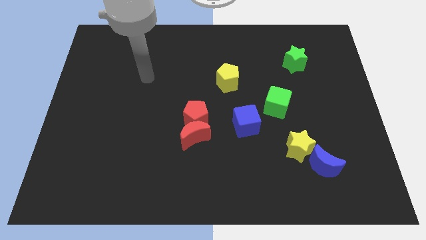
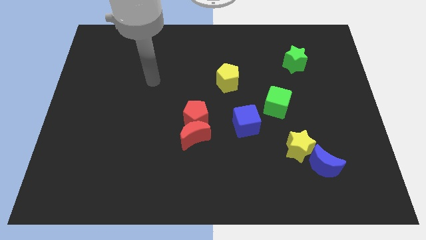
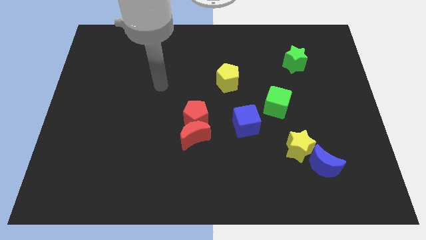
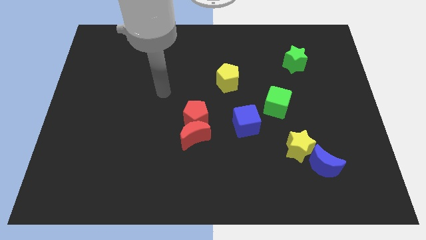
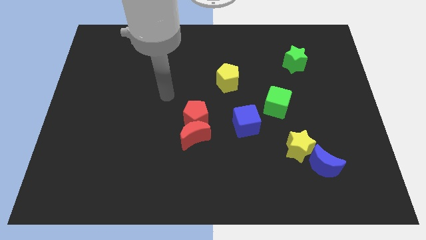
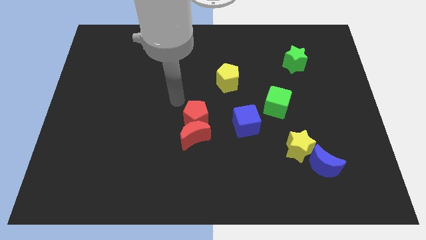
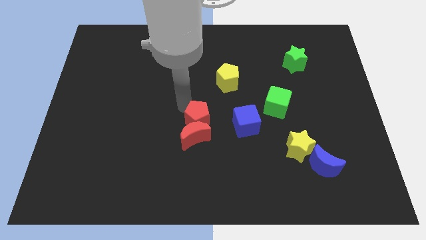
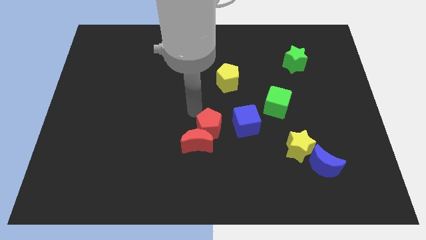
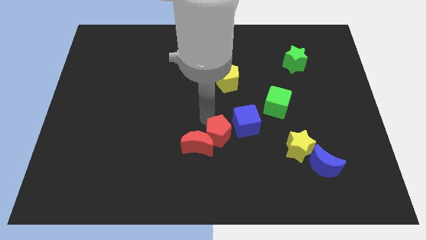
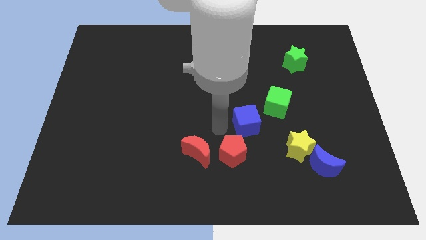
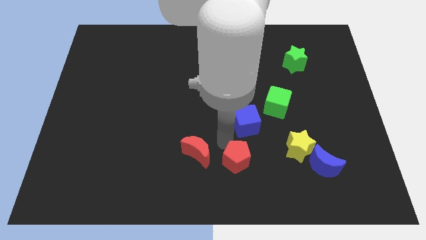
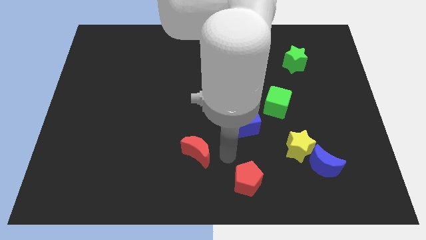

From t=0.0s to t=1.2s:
pull the red moon apart from the red pentagon

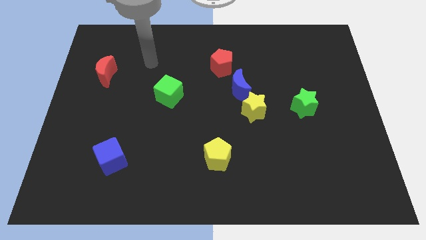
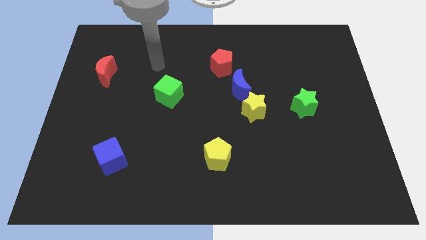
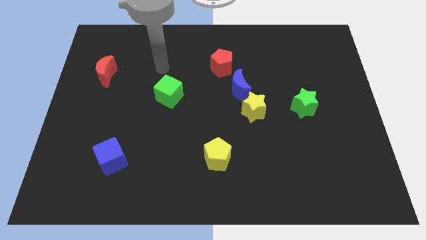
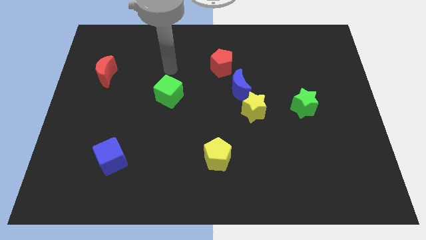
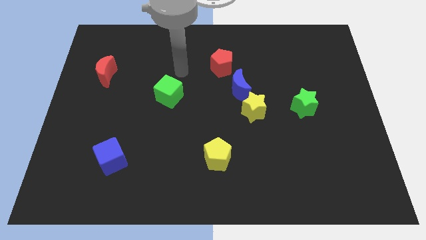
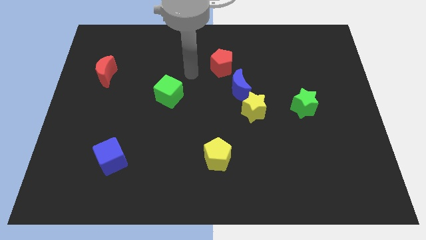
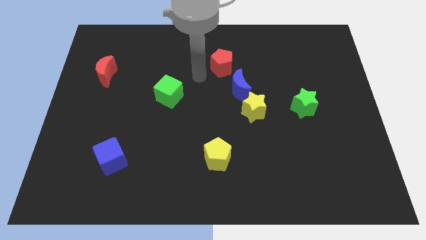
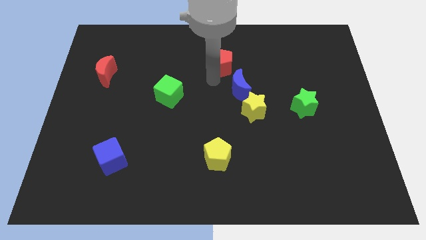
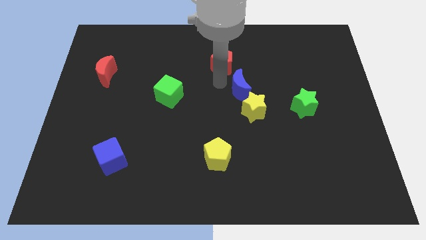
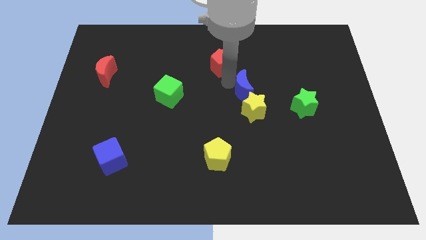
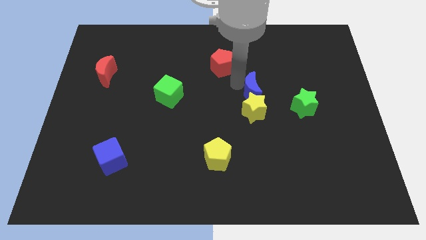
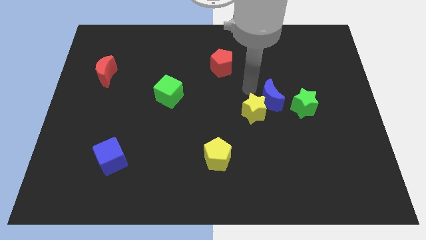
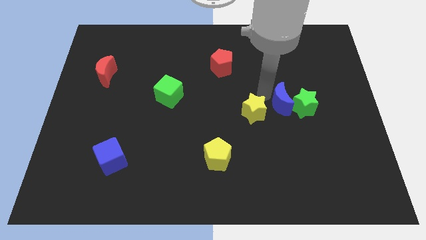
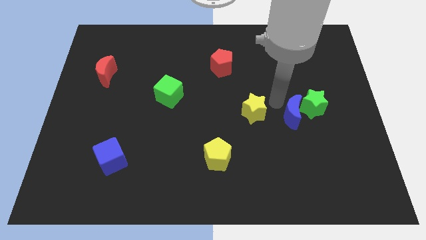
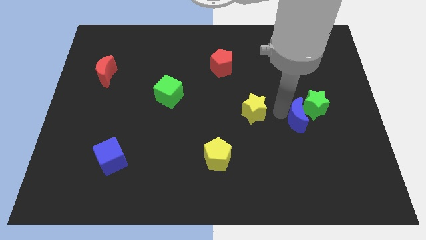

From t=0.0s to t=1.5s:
pull the yellow star apart from the blue moon

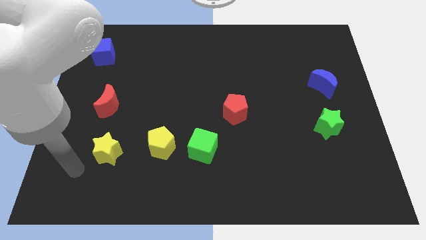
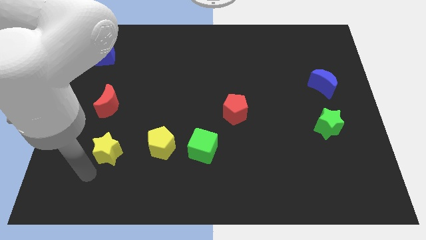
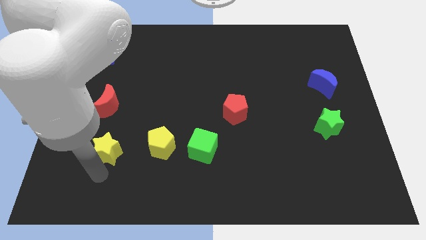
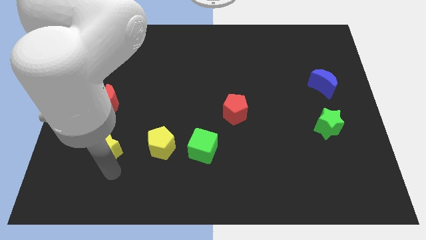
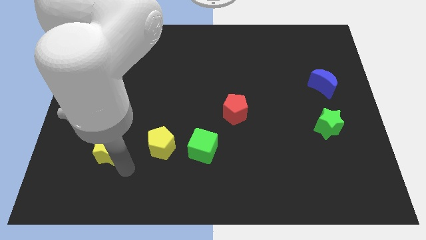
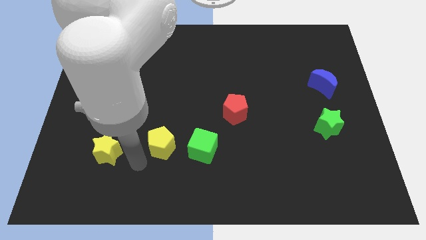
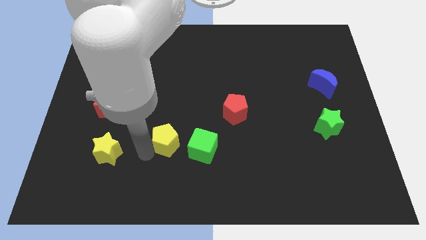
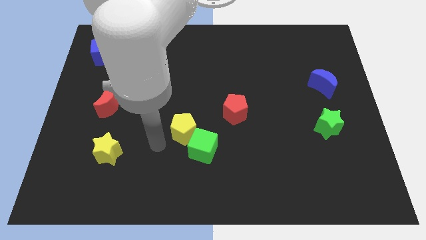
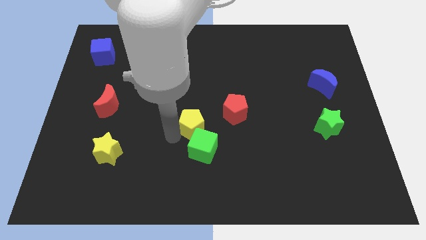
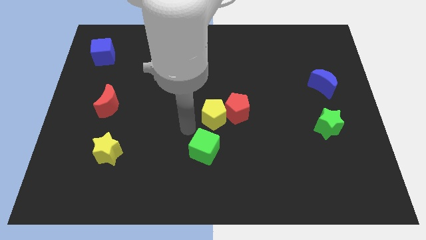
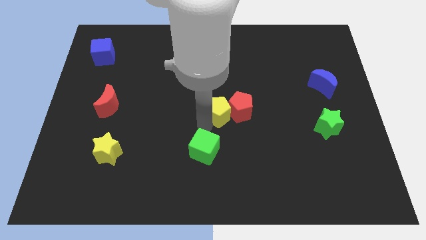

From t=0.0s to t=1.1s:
move the green cube away from the yellow pentagon

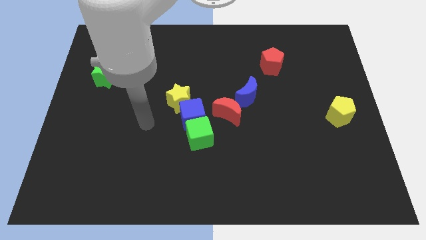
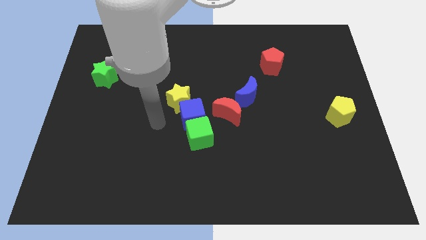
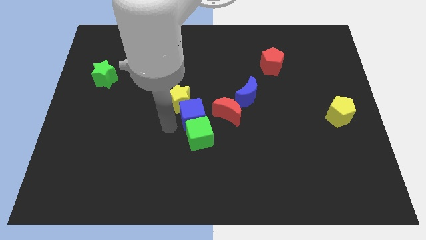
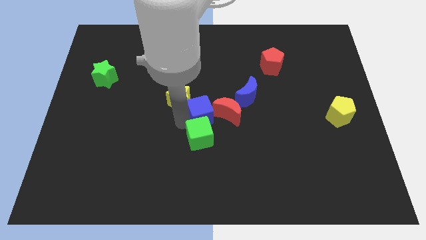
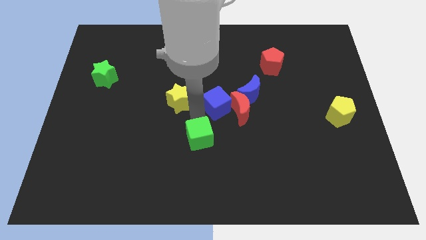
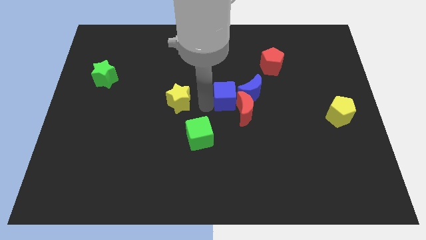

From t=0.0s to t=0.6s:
move the yellow star away from the blue cube

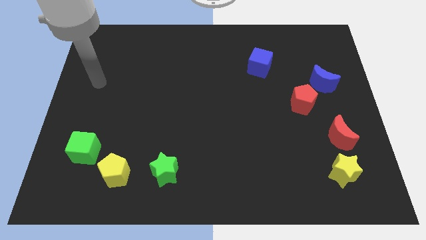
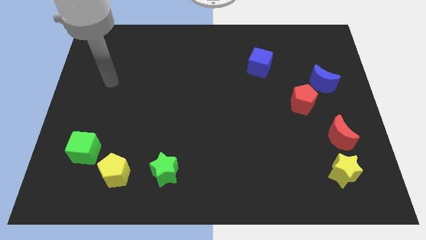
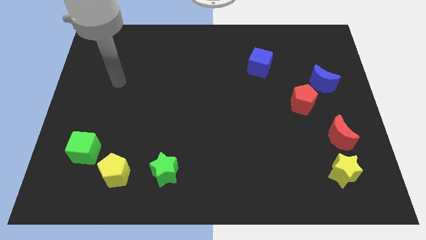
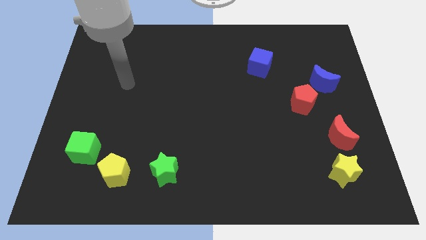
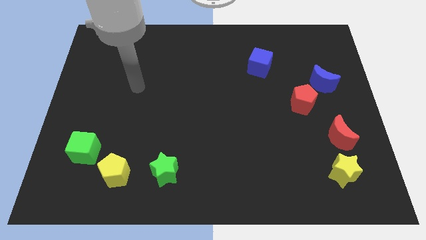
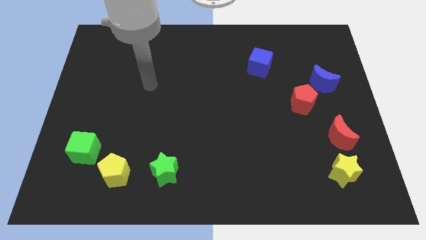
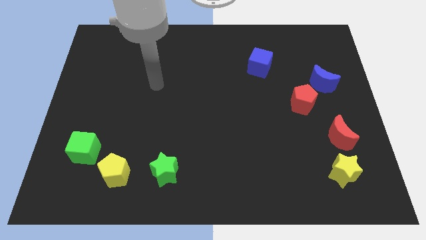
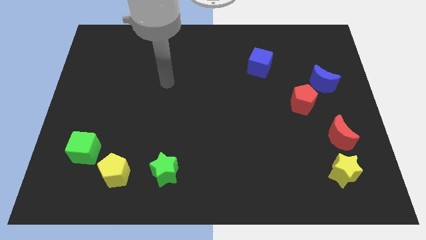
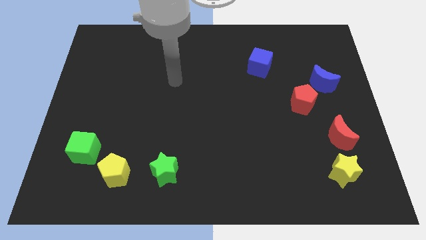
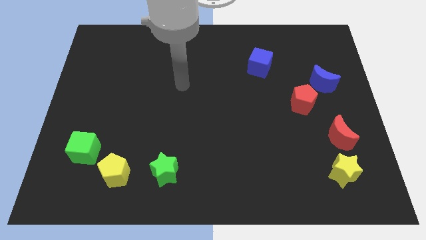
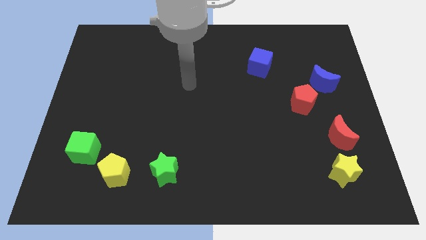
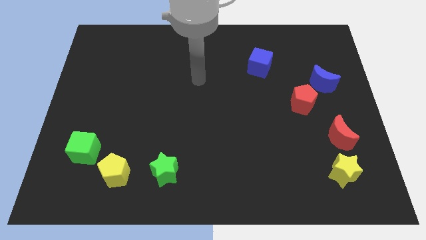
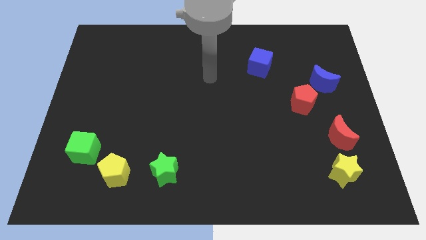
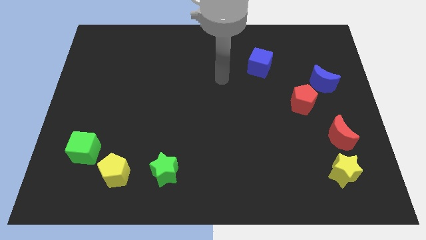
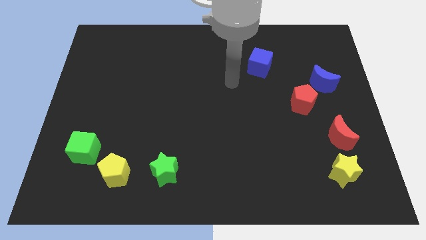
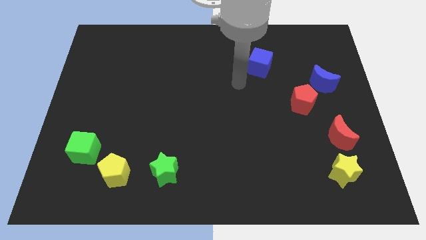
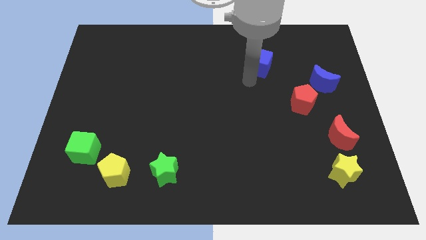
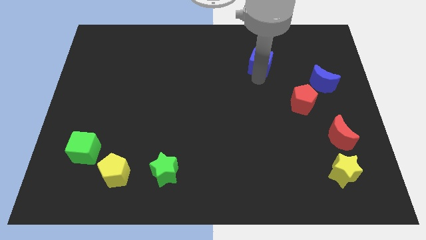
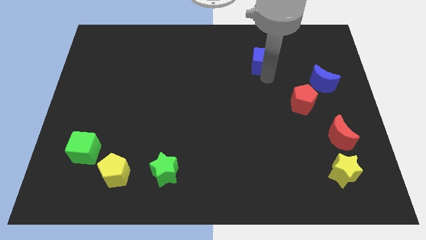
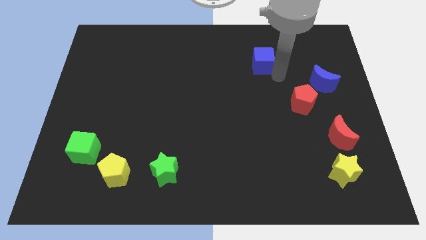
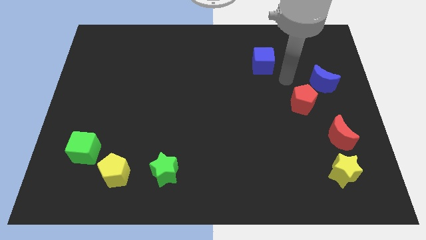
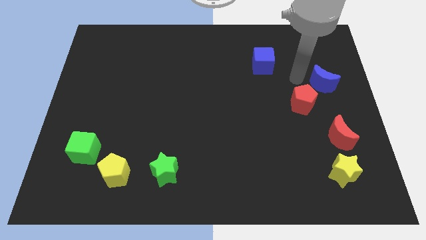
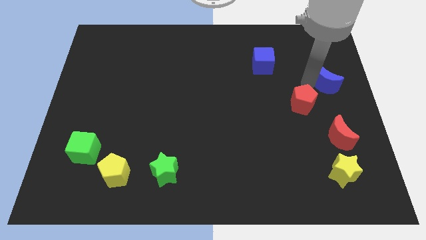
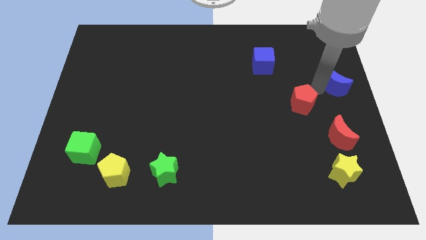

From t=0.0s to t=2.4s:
separate the red pentagon from the blue moon

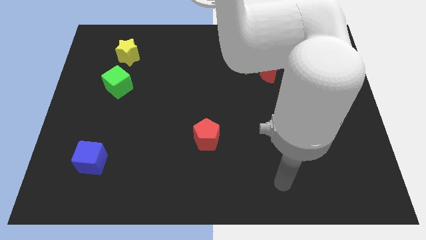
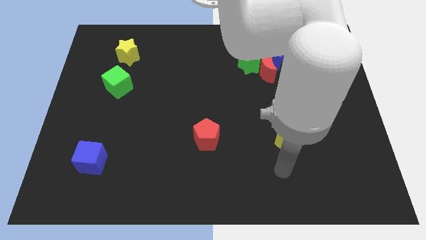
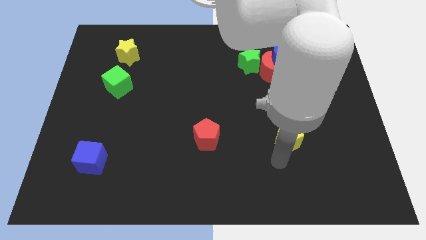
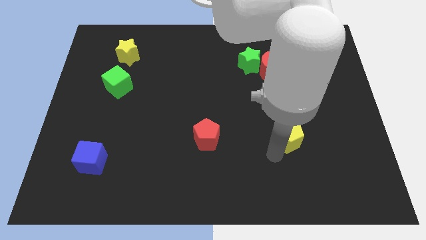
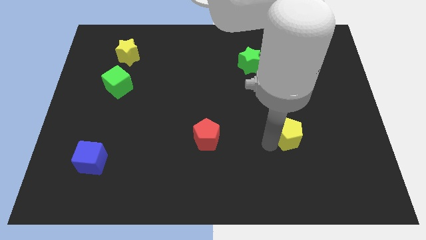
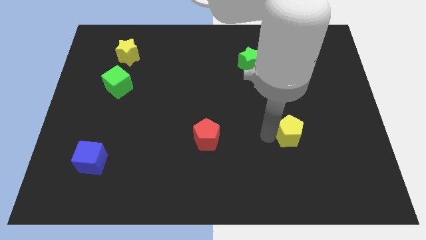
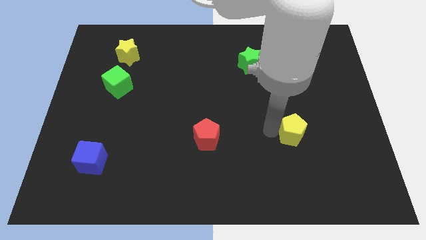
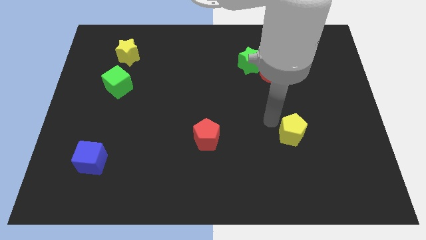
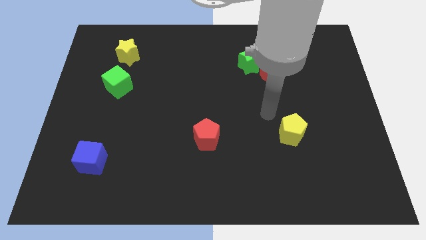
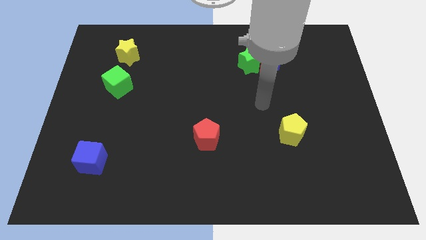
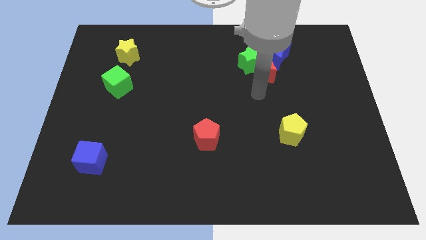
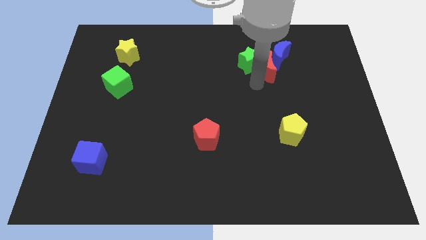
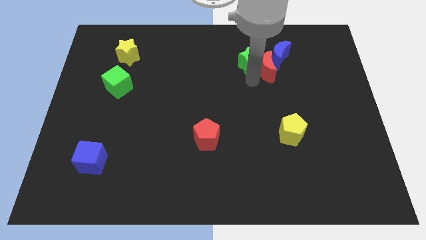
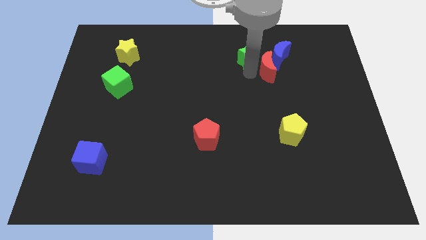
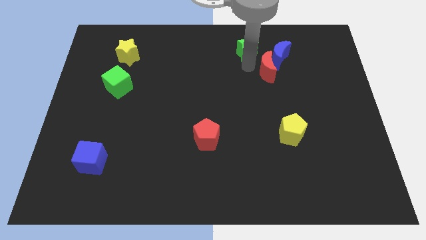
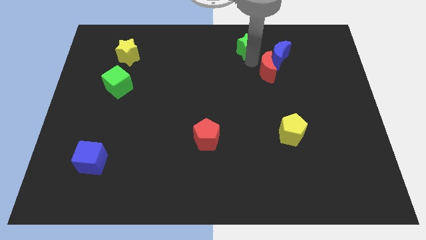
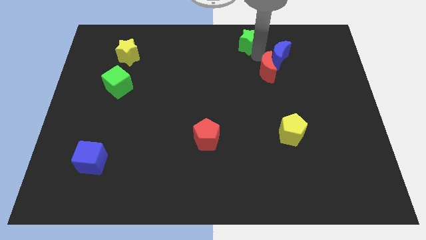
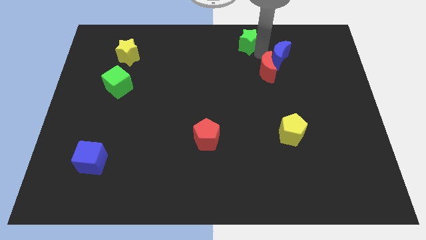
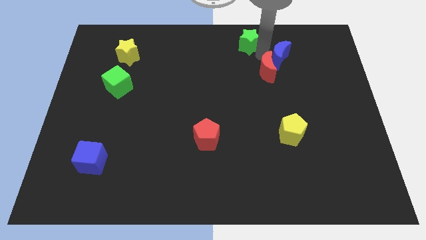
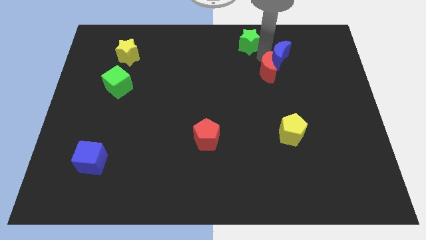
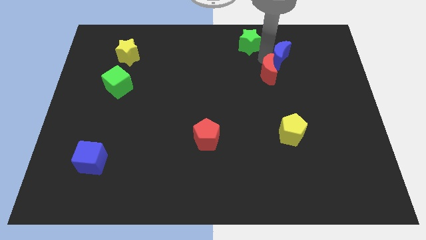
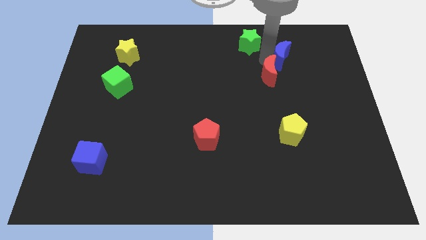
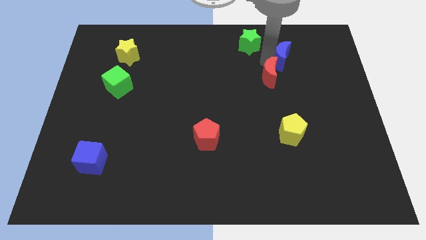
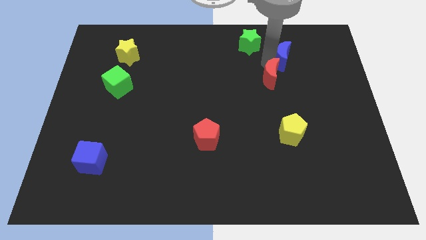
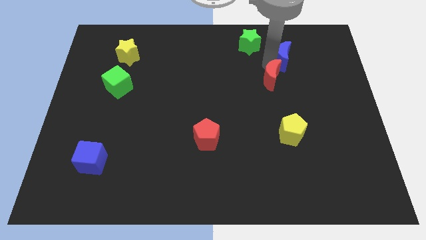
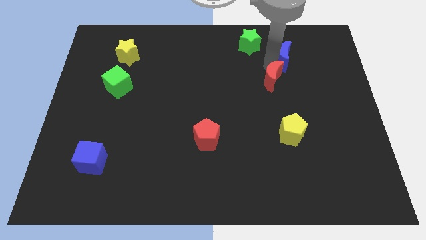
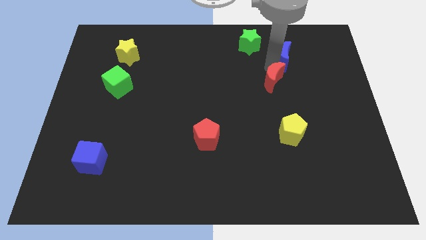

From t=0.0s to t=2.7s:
pull the red moon apart from the green star and blue moon
